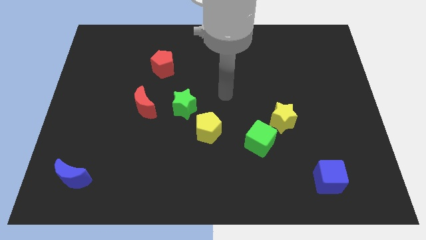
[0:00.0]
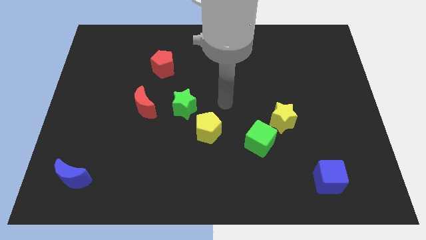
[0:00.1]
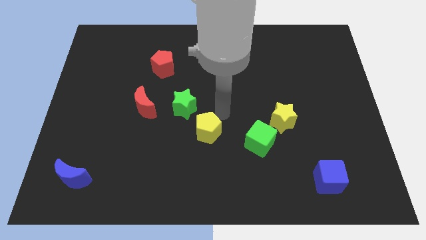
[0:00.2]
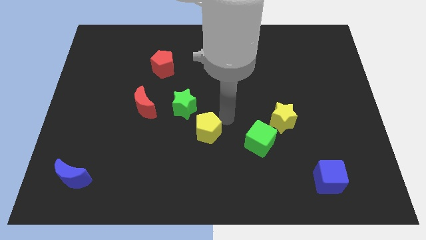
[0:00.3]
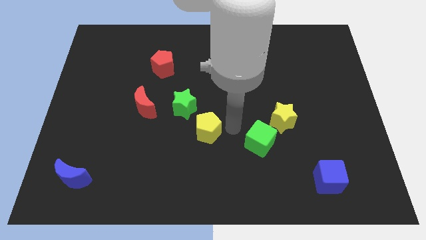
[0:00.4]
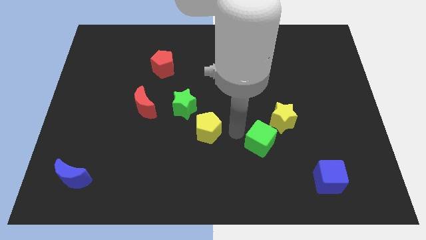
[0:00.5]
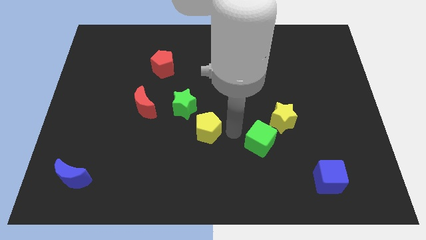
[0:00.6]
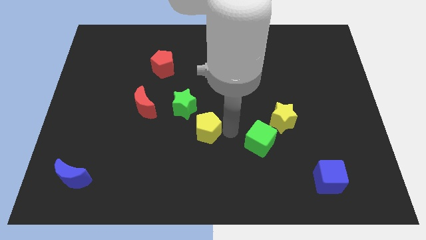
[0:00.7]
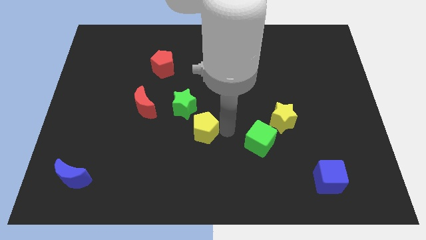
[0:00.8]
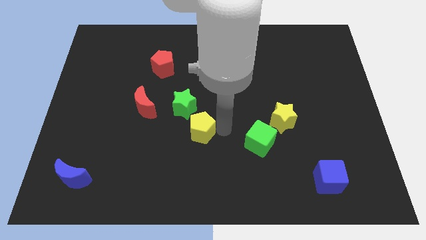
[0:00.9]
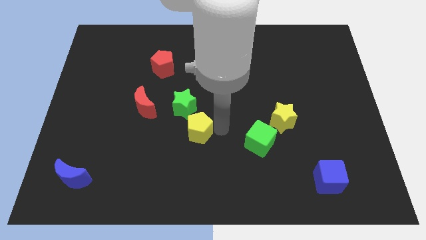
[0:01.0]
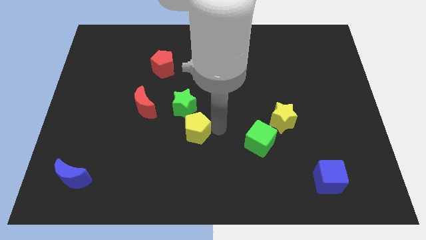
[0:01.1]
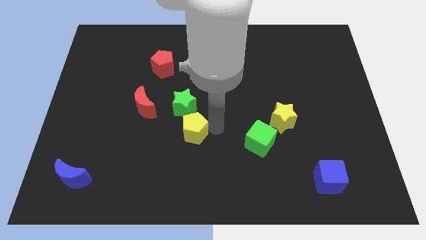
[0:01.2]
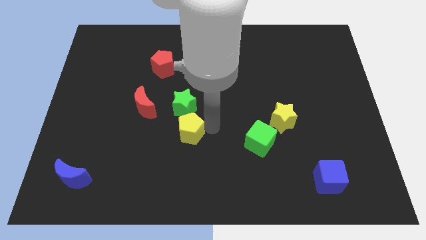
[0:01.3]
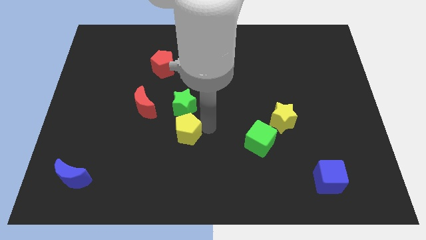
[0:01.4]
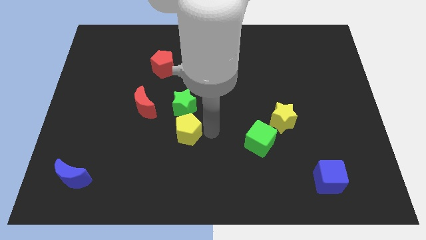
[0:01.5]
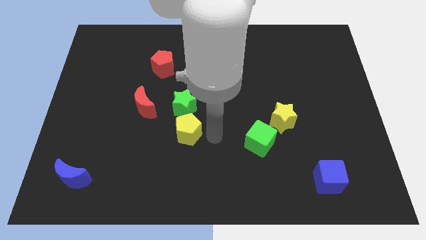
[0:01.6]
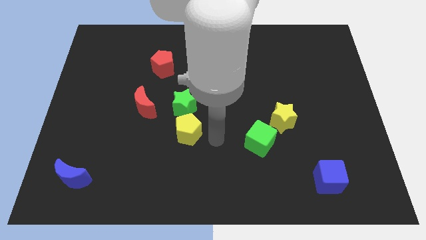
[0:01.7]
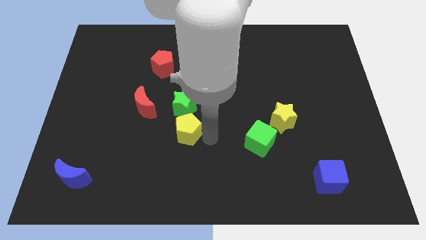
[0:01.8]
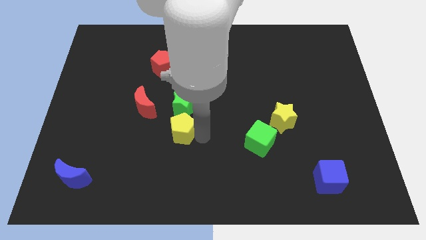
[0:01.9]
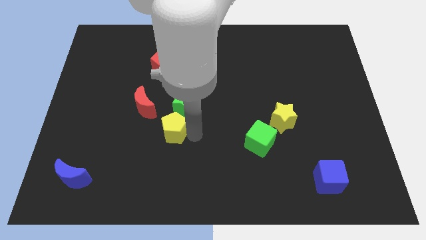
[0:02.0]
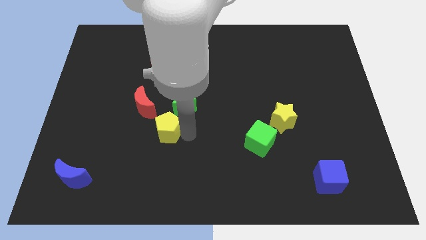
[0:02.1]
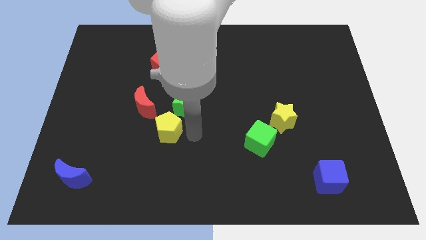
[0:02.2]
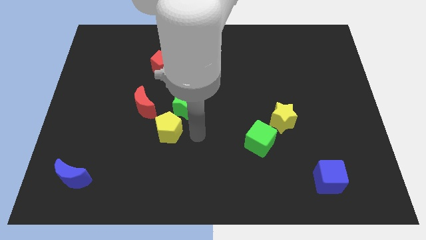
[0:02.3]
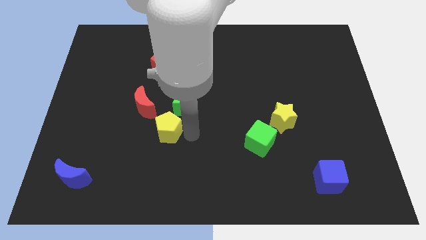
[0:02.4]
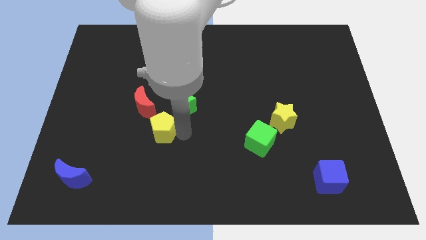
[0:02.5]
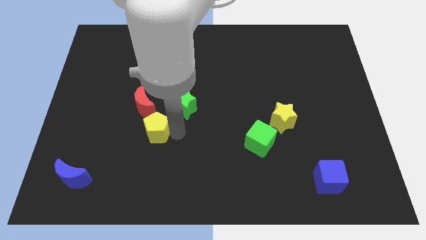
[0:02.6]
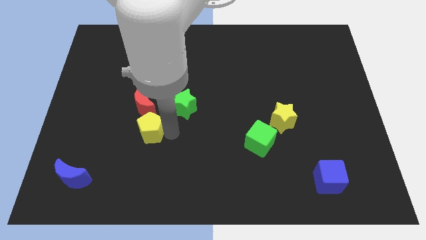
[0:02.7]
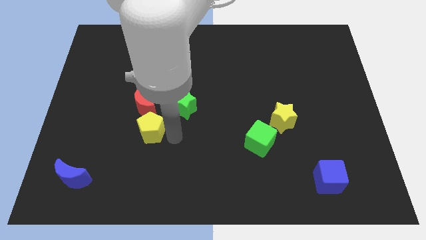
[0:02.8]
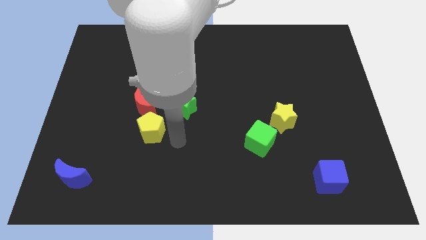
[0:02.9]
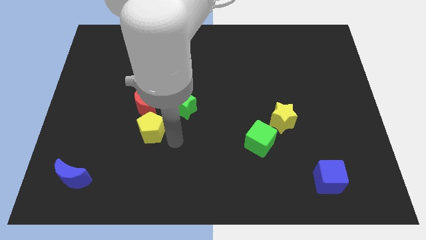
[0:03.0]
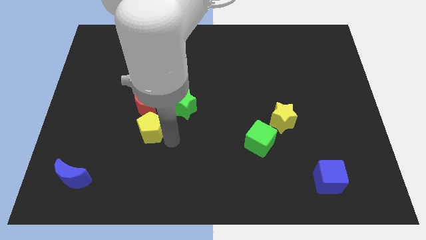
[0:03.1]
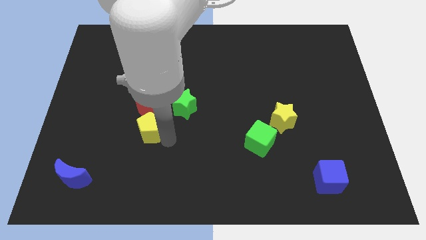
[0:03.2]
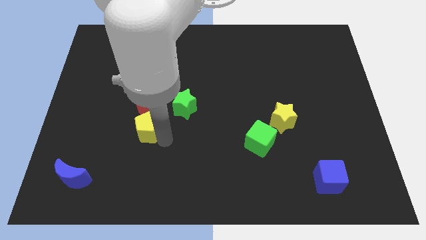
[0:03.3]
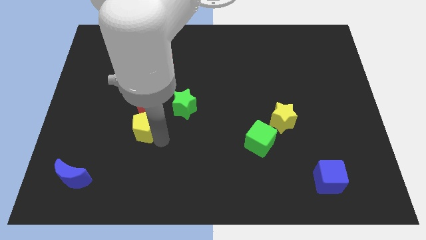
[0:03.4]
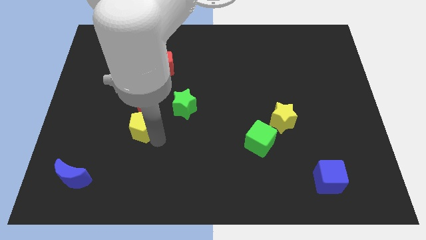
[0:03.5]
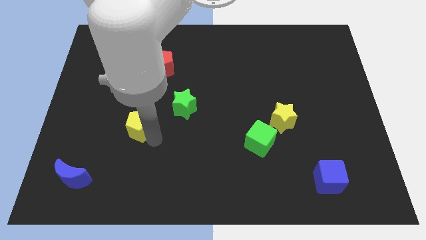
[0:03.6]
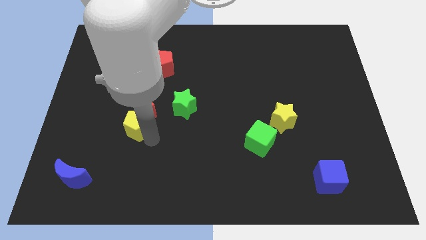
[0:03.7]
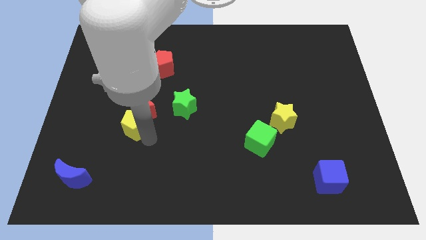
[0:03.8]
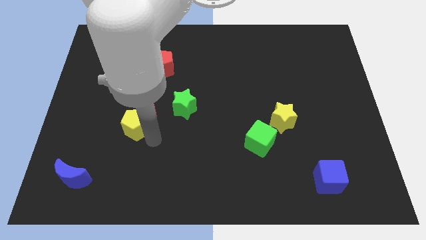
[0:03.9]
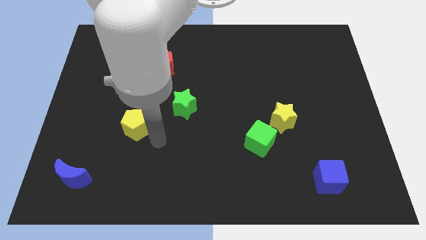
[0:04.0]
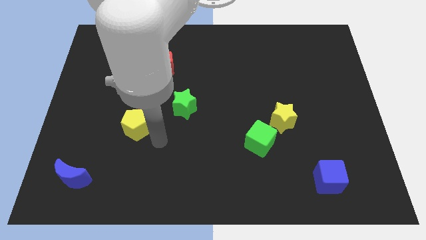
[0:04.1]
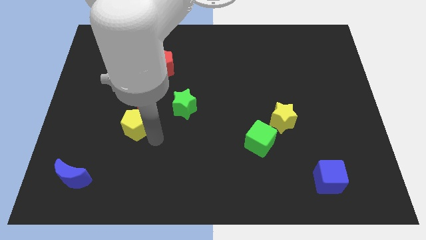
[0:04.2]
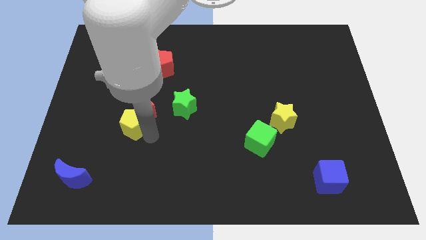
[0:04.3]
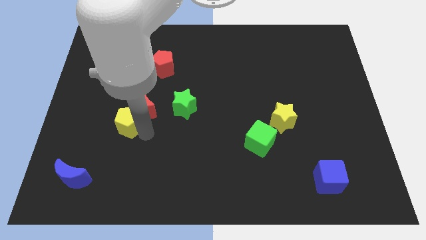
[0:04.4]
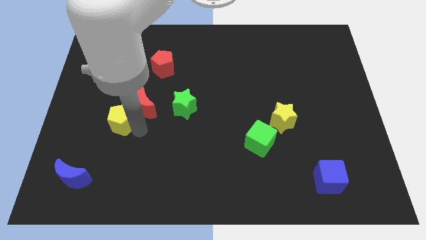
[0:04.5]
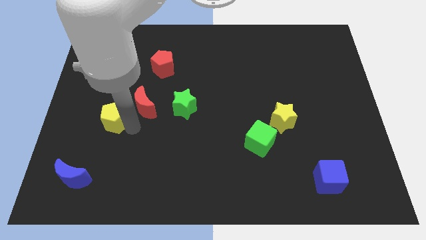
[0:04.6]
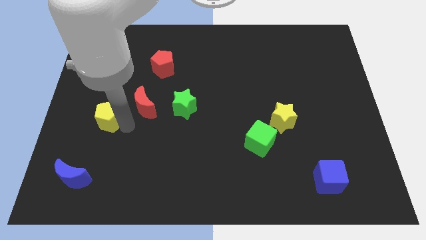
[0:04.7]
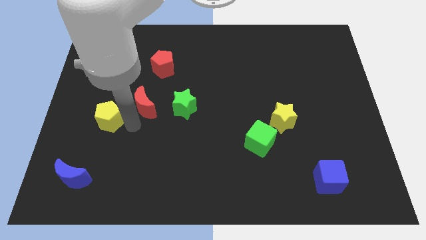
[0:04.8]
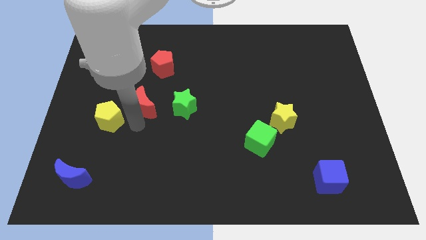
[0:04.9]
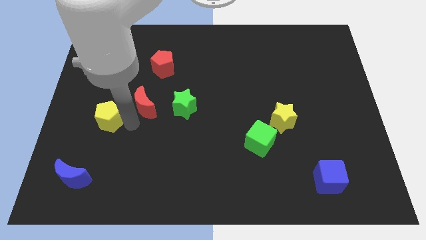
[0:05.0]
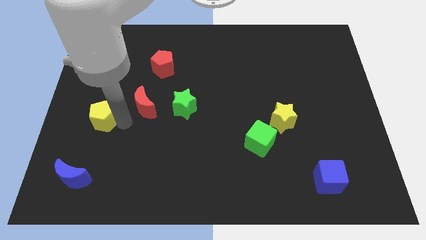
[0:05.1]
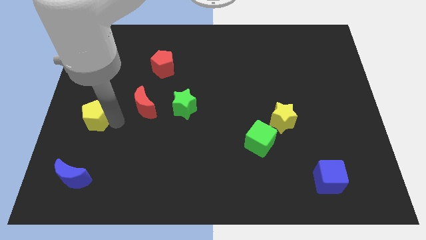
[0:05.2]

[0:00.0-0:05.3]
put the yellow pentagon to the center left
